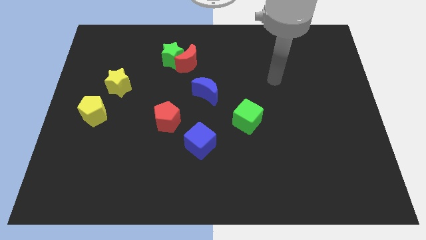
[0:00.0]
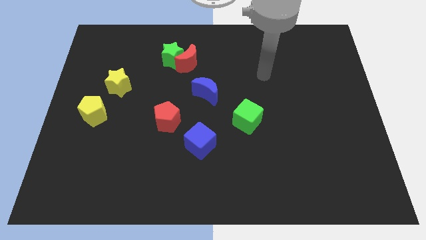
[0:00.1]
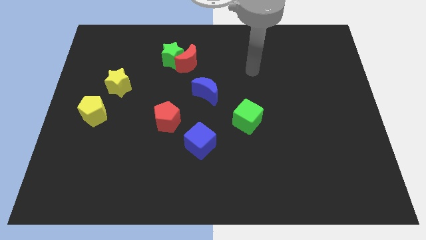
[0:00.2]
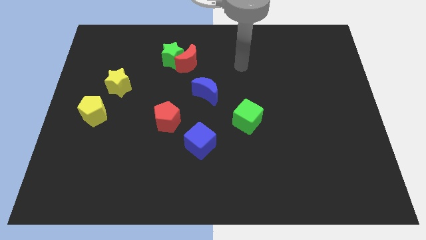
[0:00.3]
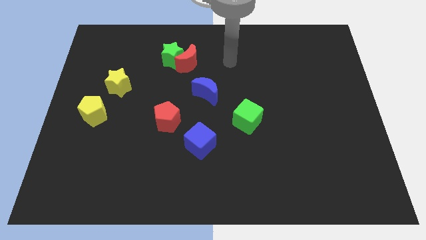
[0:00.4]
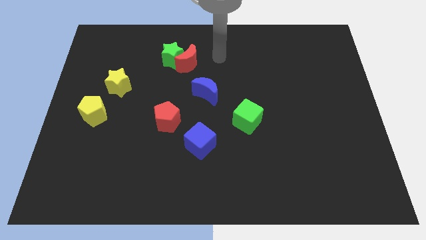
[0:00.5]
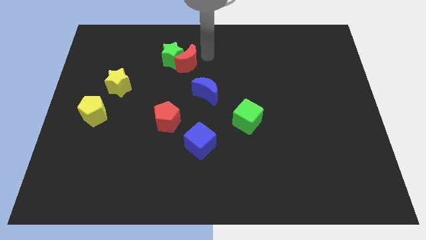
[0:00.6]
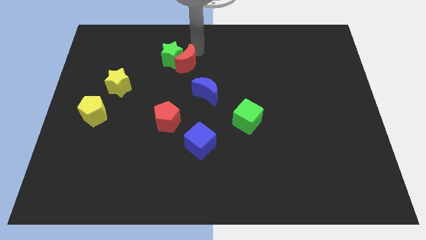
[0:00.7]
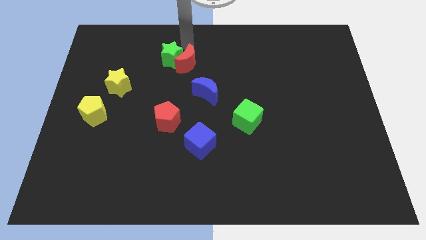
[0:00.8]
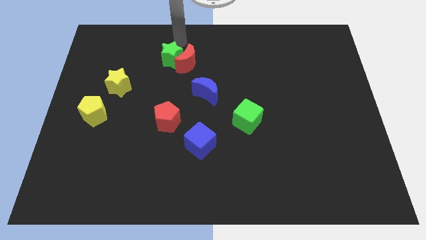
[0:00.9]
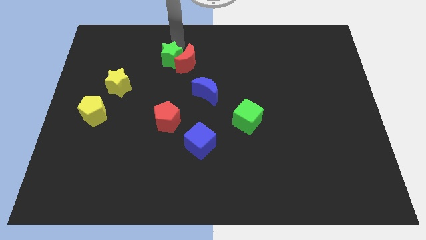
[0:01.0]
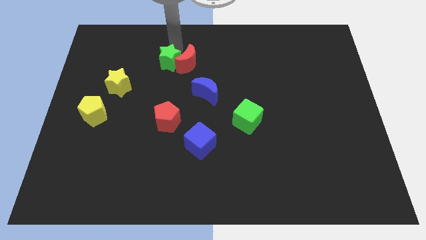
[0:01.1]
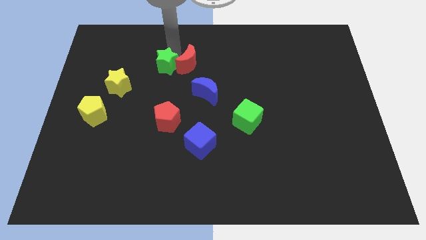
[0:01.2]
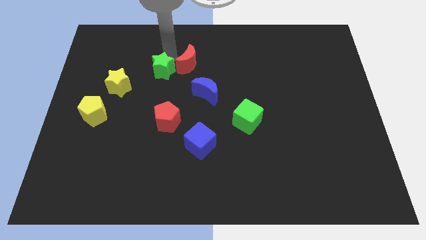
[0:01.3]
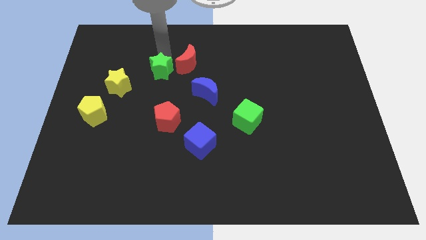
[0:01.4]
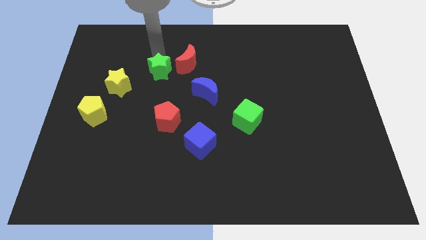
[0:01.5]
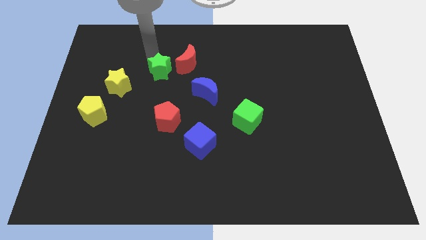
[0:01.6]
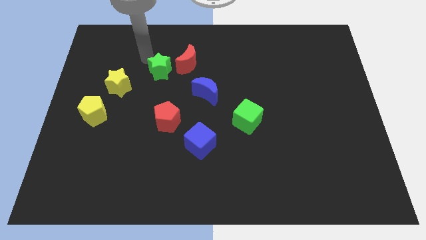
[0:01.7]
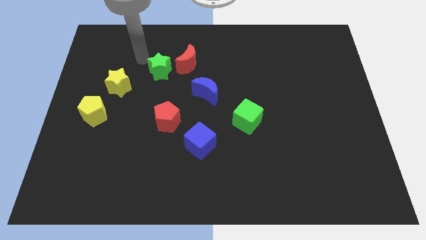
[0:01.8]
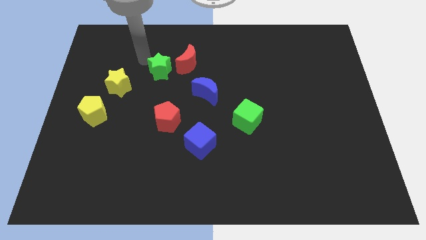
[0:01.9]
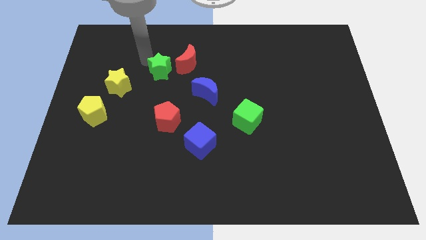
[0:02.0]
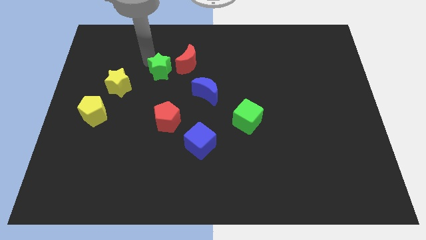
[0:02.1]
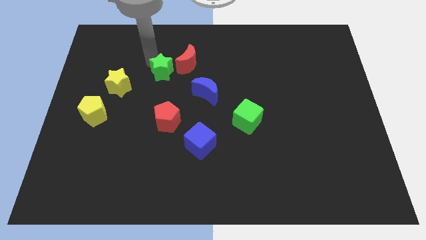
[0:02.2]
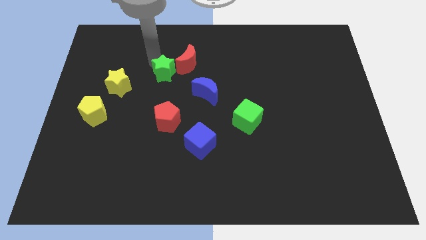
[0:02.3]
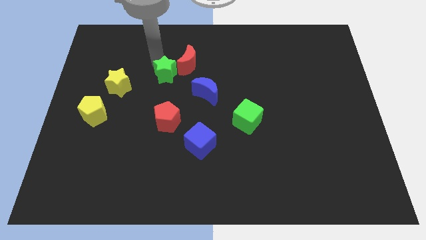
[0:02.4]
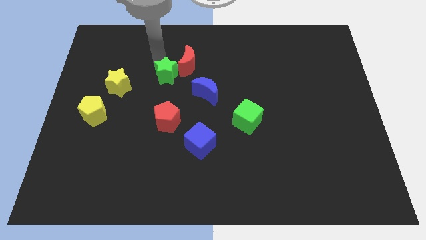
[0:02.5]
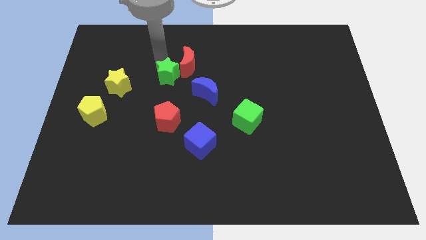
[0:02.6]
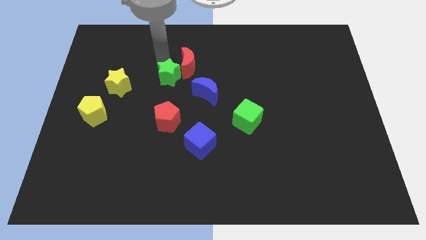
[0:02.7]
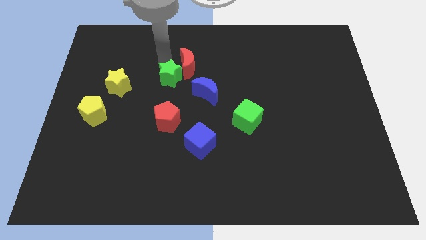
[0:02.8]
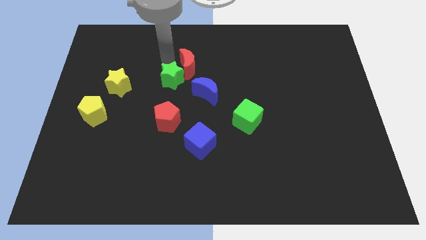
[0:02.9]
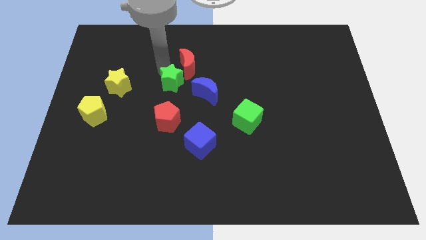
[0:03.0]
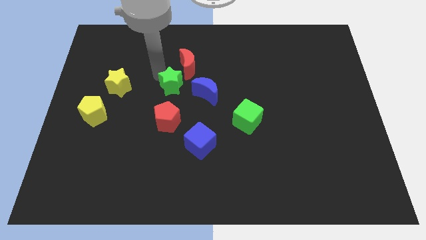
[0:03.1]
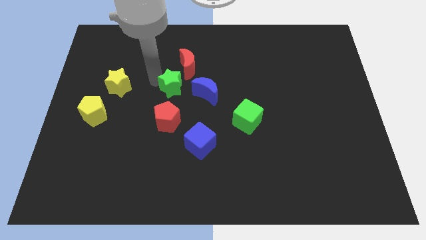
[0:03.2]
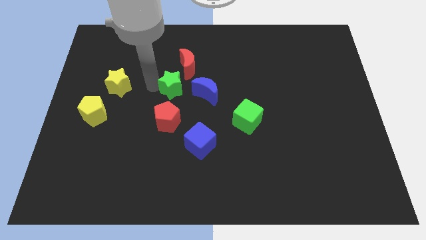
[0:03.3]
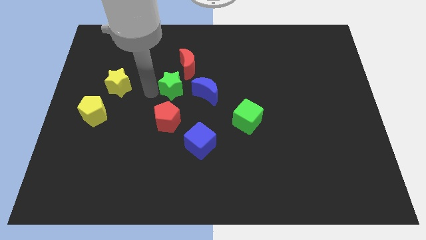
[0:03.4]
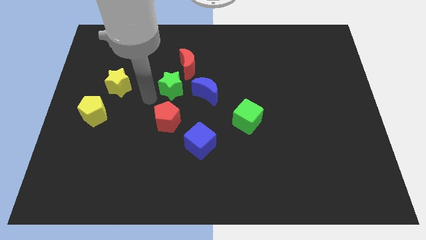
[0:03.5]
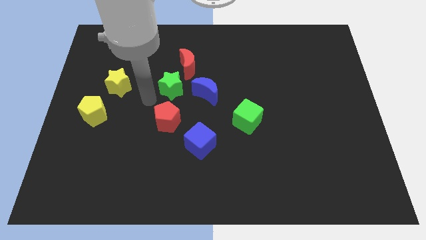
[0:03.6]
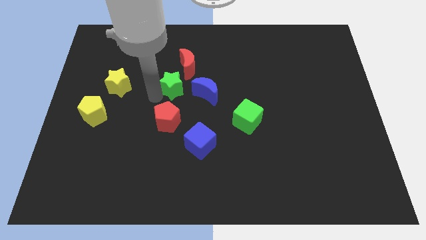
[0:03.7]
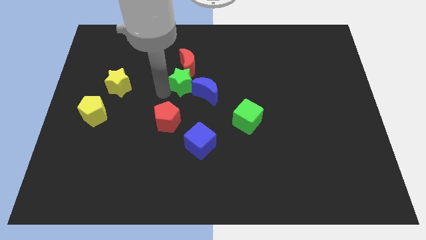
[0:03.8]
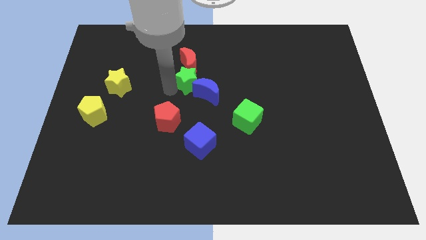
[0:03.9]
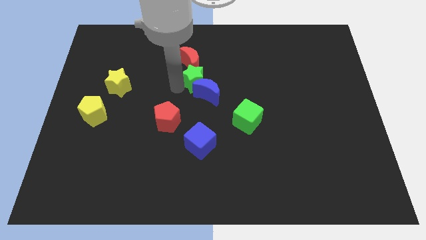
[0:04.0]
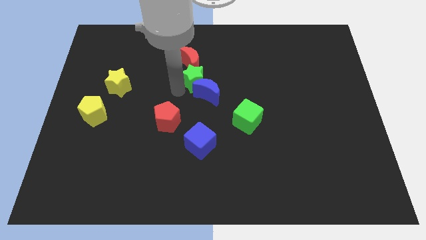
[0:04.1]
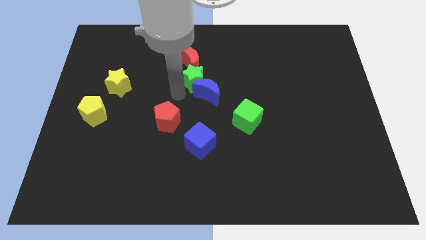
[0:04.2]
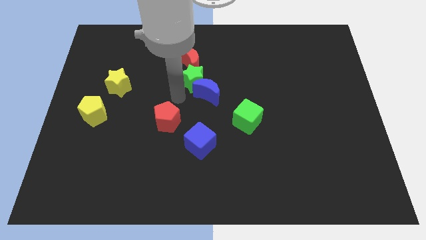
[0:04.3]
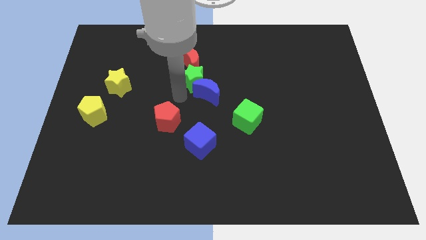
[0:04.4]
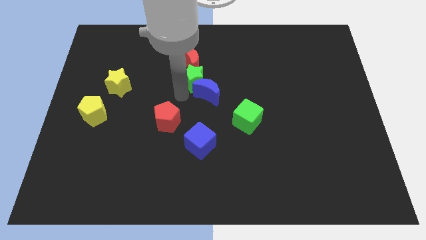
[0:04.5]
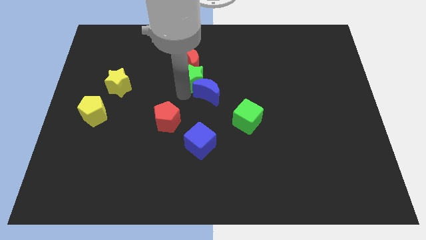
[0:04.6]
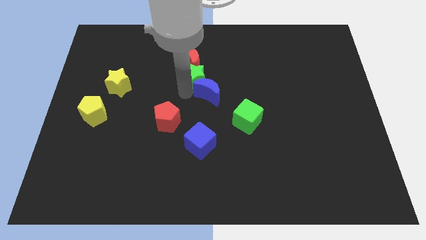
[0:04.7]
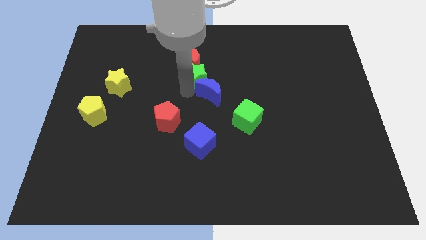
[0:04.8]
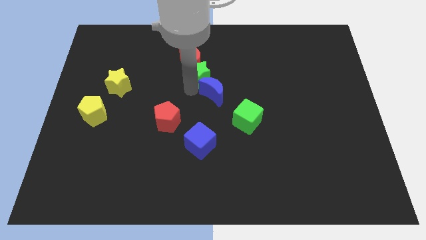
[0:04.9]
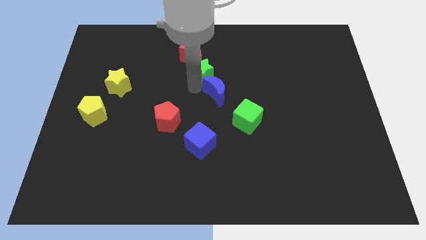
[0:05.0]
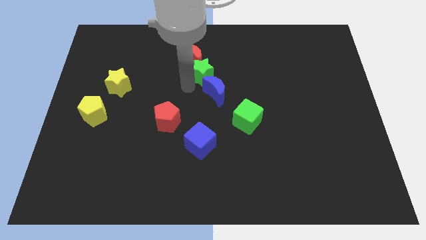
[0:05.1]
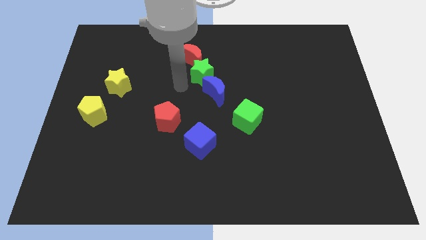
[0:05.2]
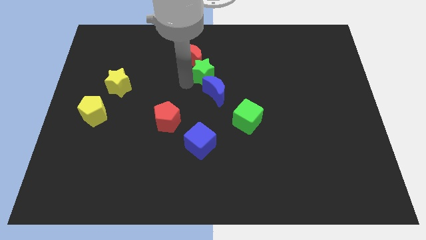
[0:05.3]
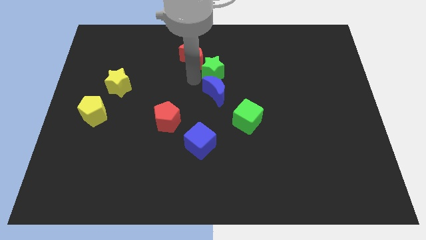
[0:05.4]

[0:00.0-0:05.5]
put the green star just right of the red moon
